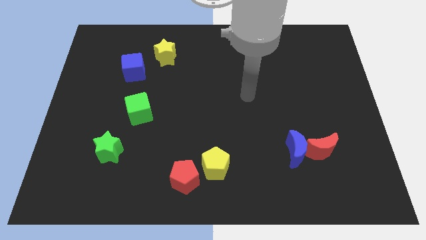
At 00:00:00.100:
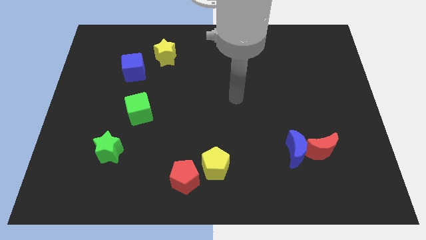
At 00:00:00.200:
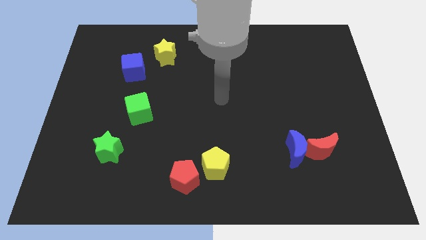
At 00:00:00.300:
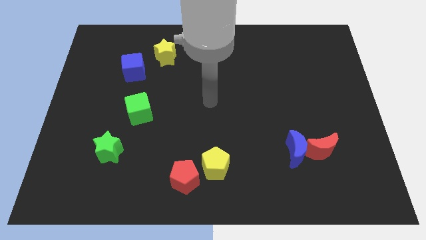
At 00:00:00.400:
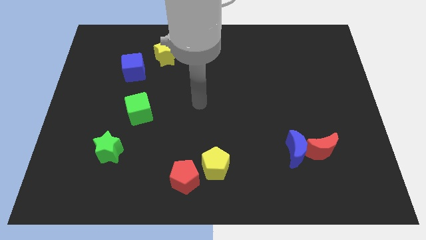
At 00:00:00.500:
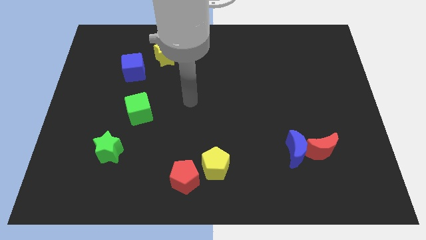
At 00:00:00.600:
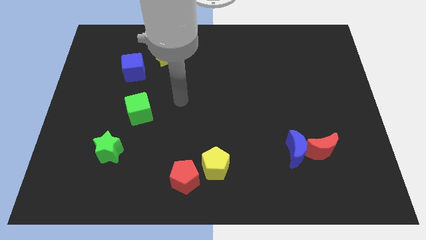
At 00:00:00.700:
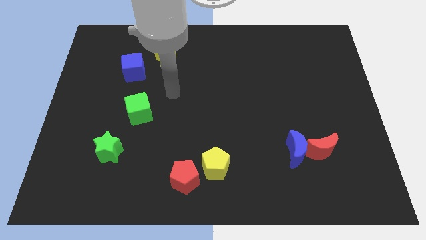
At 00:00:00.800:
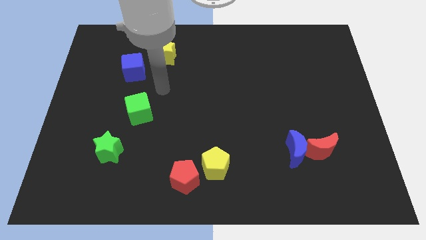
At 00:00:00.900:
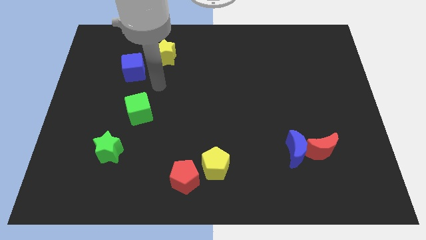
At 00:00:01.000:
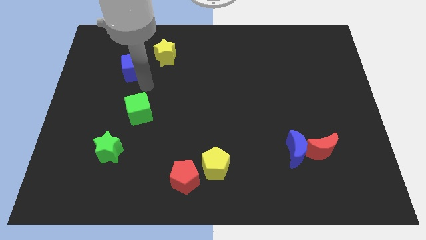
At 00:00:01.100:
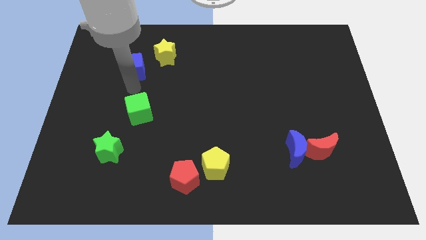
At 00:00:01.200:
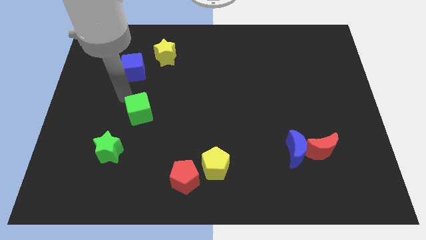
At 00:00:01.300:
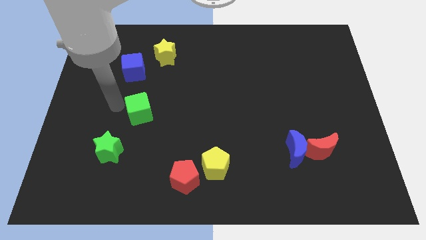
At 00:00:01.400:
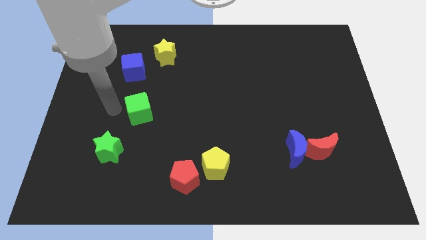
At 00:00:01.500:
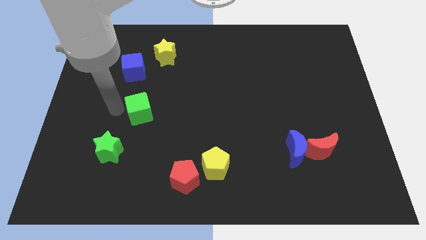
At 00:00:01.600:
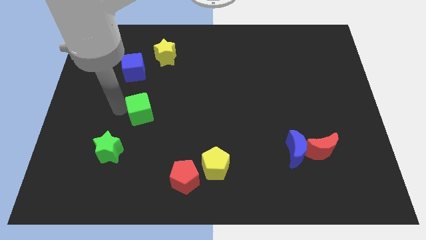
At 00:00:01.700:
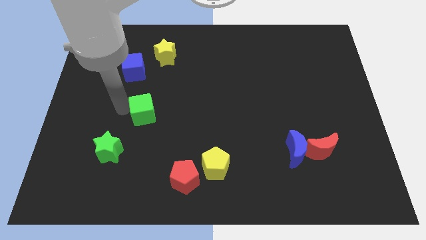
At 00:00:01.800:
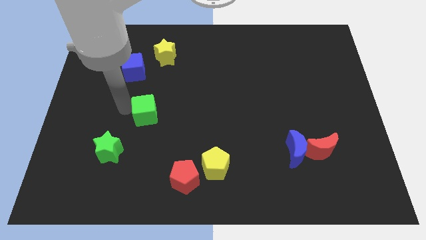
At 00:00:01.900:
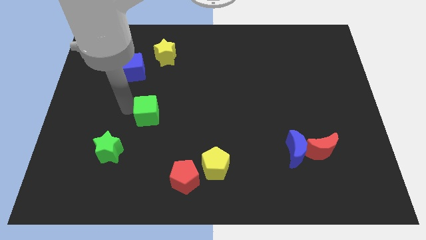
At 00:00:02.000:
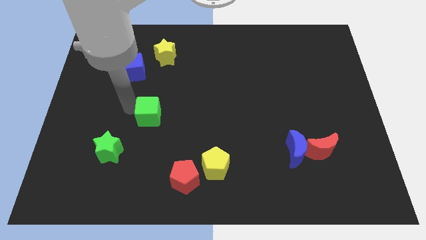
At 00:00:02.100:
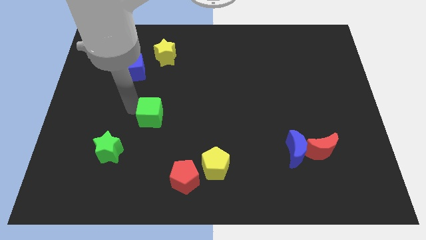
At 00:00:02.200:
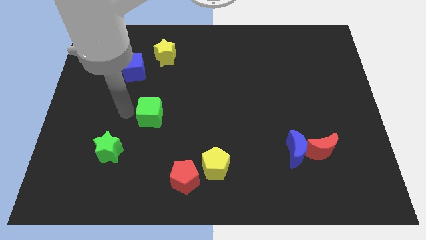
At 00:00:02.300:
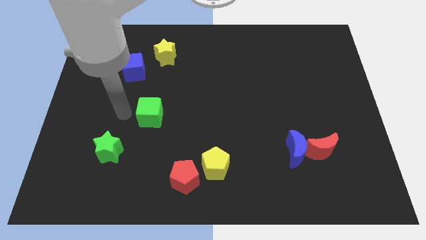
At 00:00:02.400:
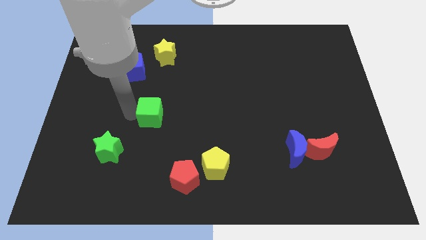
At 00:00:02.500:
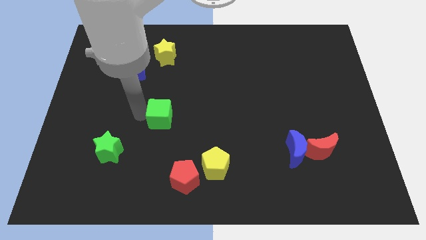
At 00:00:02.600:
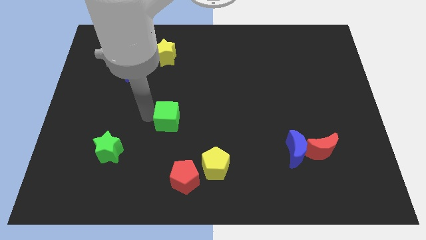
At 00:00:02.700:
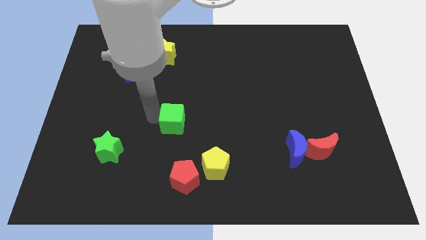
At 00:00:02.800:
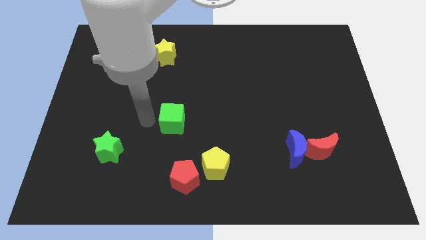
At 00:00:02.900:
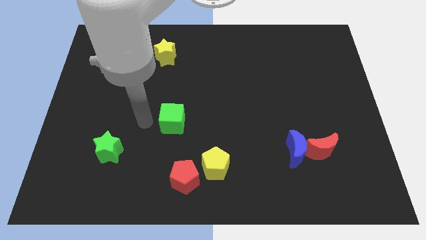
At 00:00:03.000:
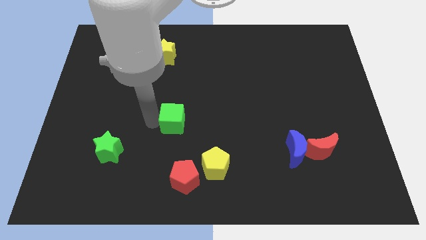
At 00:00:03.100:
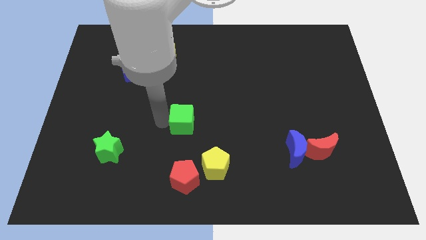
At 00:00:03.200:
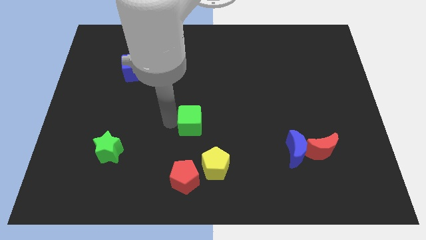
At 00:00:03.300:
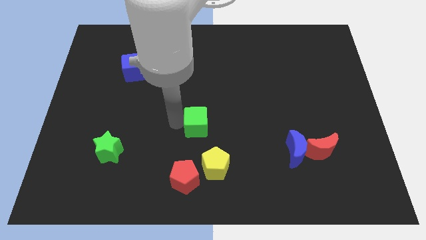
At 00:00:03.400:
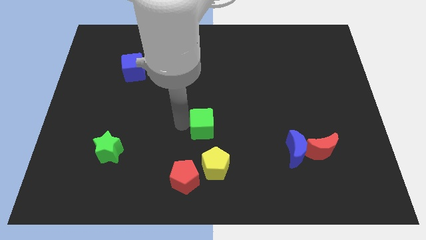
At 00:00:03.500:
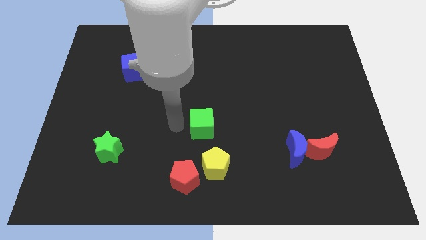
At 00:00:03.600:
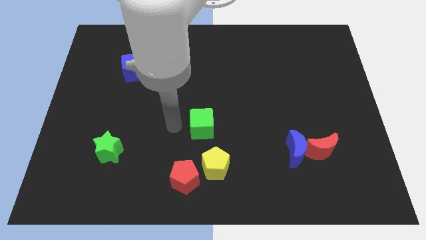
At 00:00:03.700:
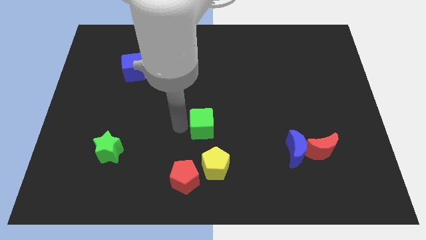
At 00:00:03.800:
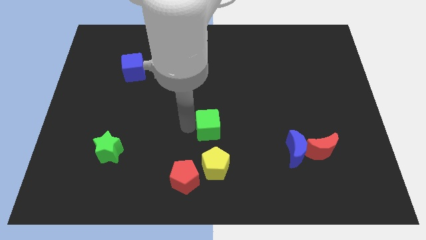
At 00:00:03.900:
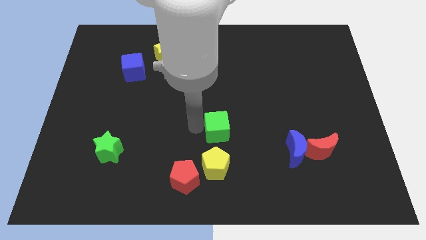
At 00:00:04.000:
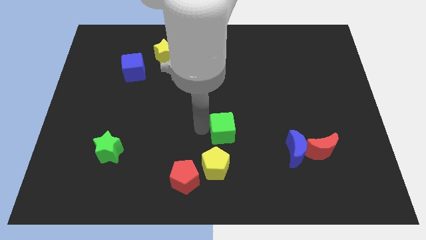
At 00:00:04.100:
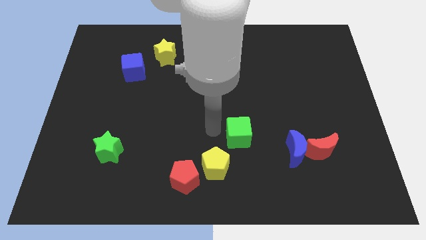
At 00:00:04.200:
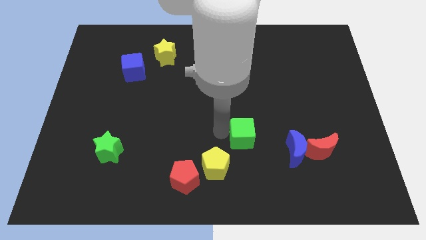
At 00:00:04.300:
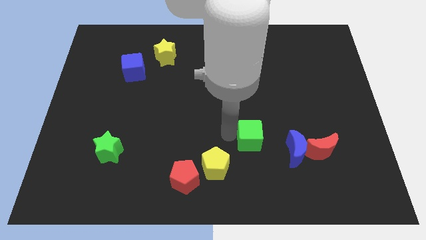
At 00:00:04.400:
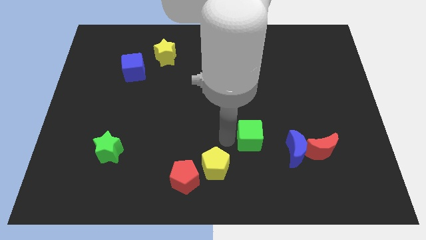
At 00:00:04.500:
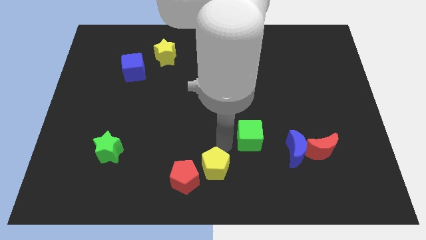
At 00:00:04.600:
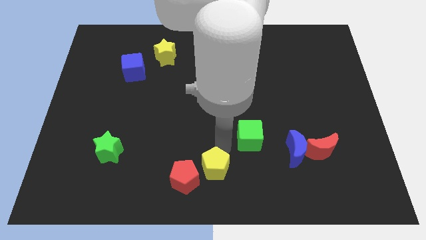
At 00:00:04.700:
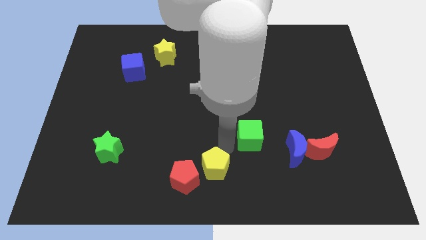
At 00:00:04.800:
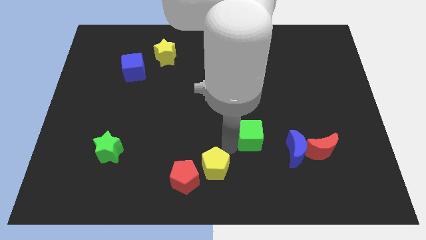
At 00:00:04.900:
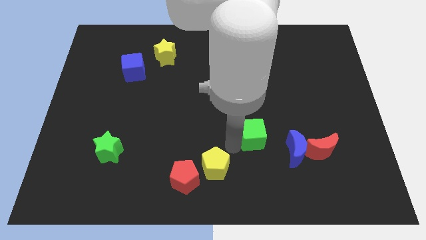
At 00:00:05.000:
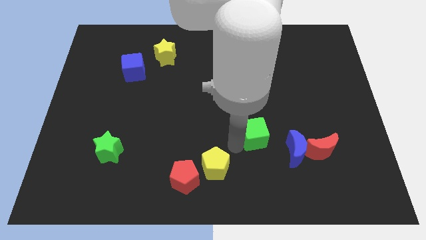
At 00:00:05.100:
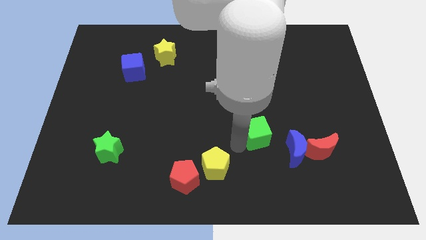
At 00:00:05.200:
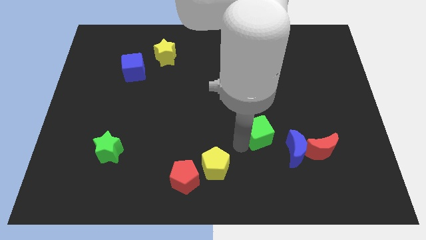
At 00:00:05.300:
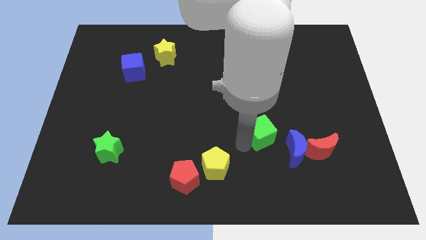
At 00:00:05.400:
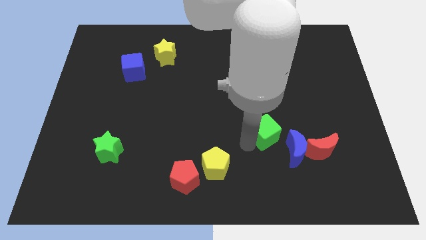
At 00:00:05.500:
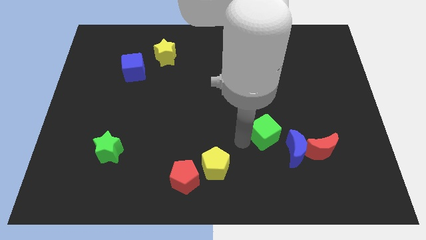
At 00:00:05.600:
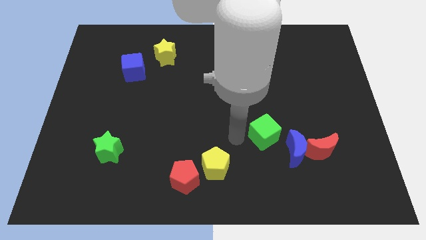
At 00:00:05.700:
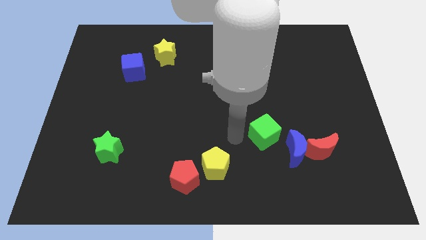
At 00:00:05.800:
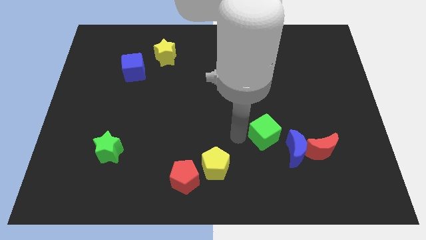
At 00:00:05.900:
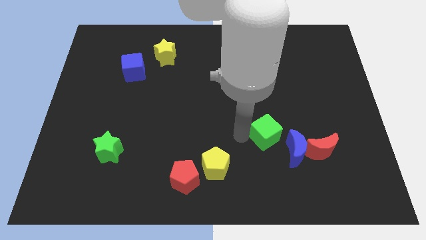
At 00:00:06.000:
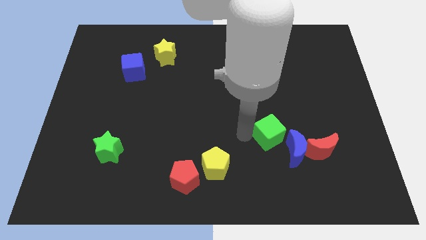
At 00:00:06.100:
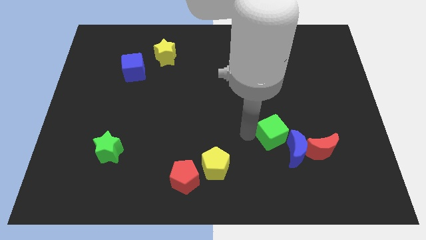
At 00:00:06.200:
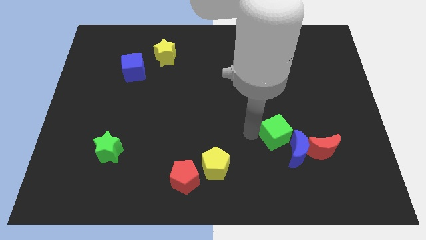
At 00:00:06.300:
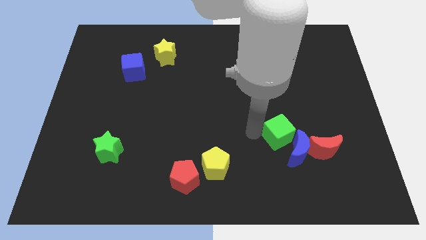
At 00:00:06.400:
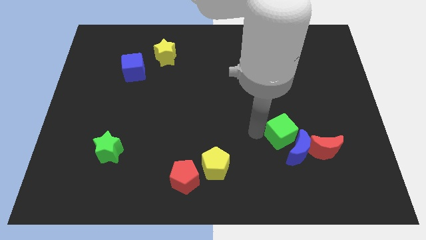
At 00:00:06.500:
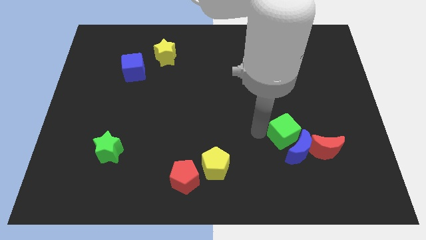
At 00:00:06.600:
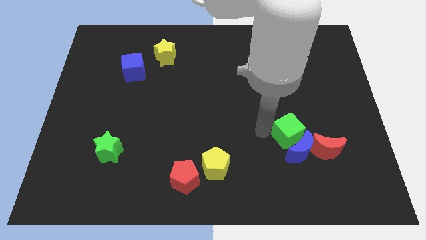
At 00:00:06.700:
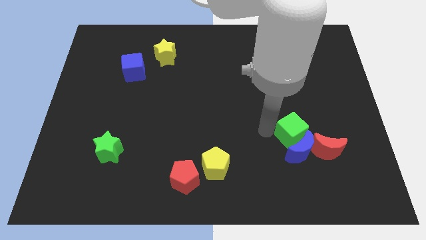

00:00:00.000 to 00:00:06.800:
put the green cube to the top right side of the blue moon
